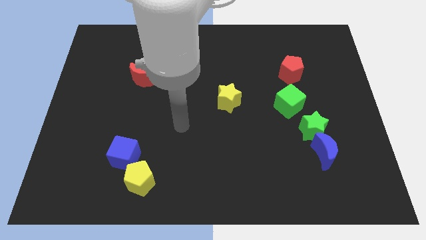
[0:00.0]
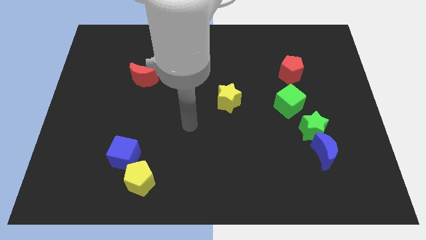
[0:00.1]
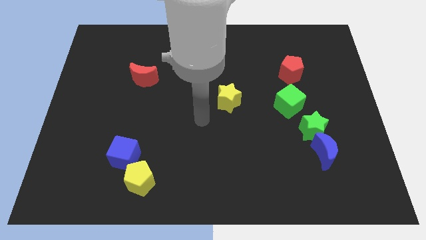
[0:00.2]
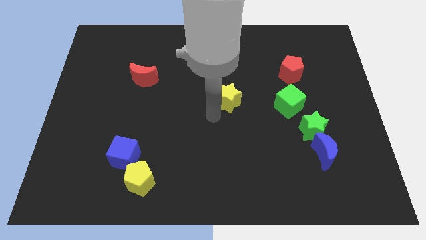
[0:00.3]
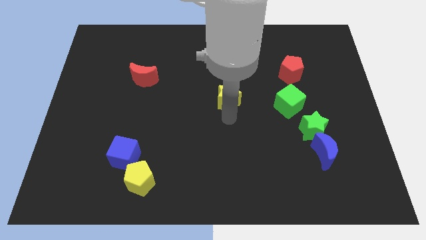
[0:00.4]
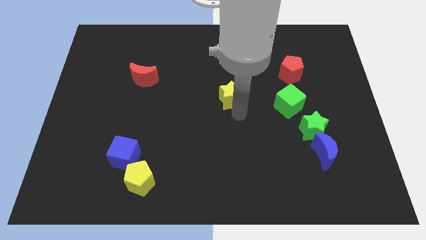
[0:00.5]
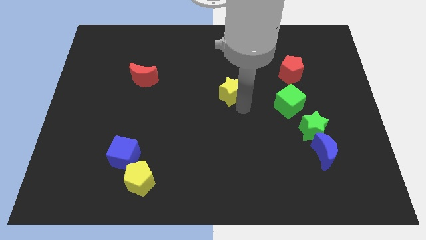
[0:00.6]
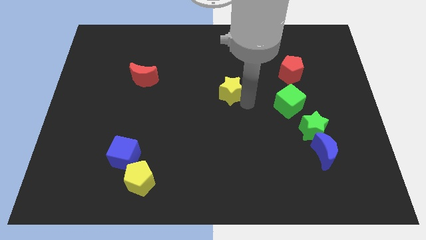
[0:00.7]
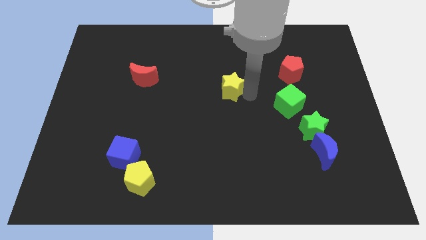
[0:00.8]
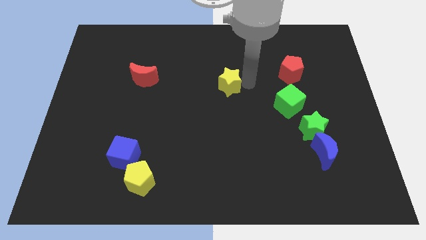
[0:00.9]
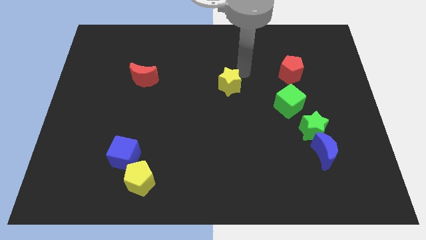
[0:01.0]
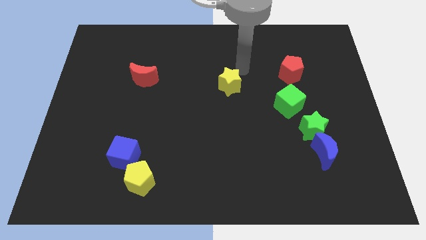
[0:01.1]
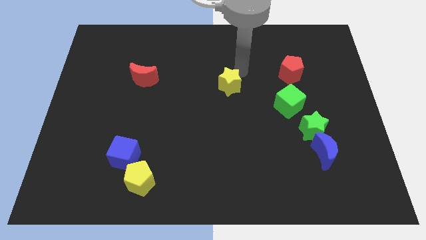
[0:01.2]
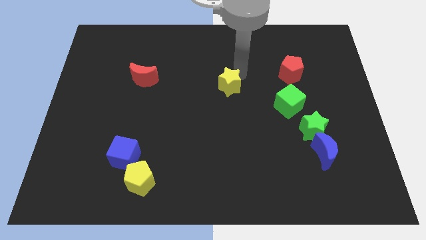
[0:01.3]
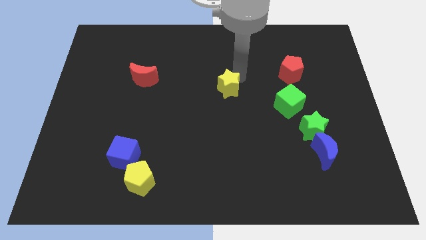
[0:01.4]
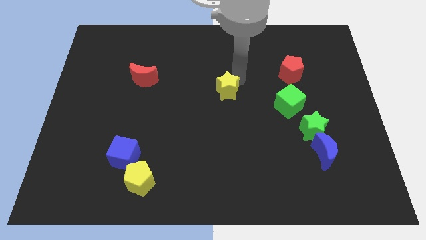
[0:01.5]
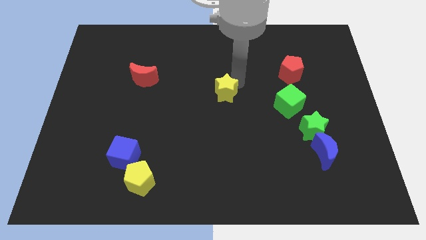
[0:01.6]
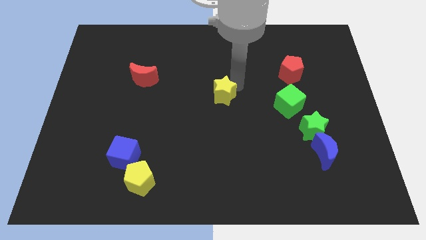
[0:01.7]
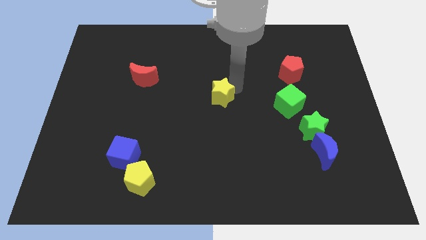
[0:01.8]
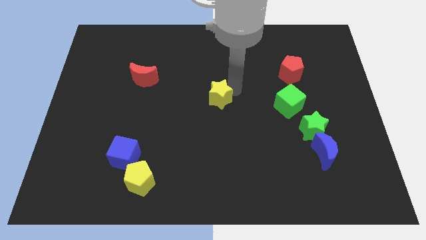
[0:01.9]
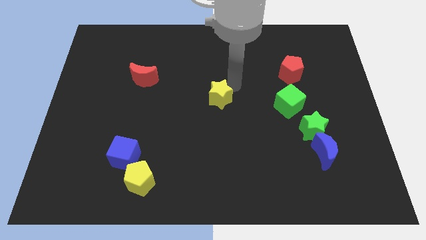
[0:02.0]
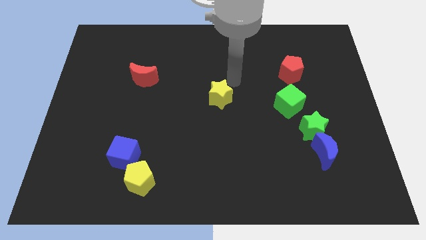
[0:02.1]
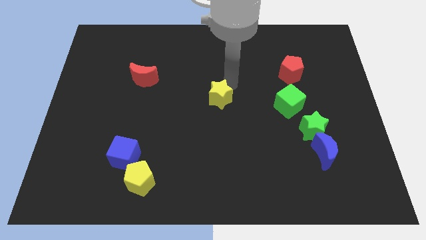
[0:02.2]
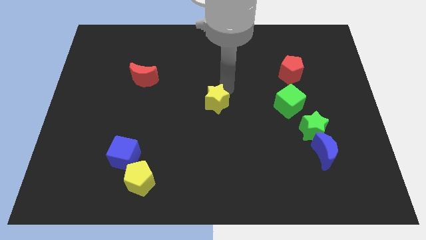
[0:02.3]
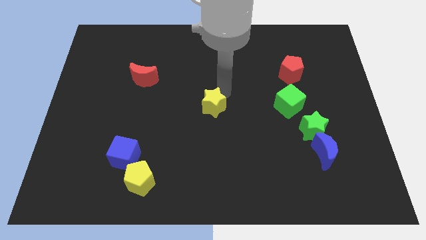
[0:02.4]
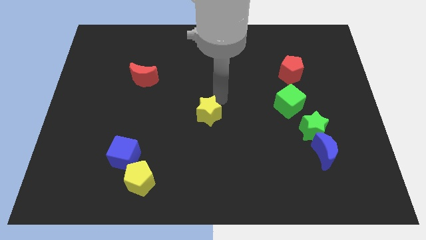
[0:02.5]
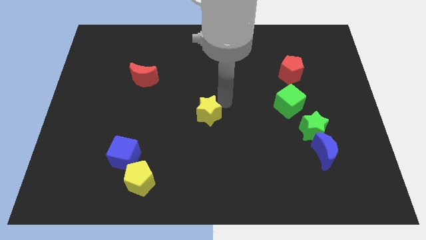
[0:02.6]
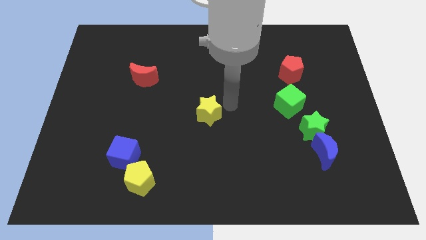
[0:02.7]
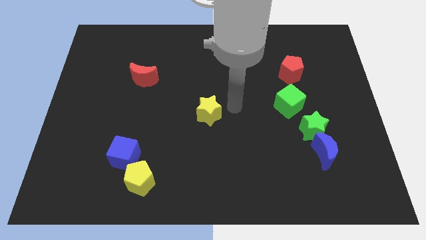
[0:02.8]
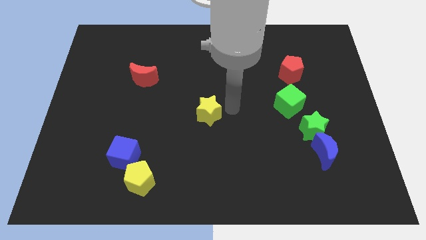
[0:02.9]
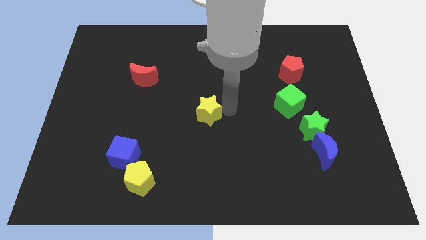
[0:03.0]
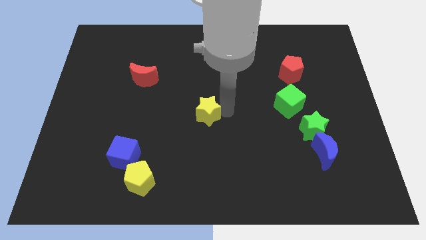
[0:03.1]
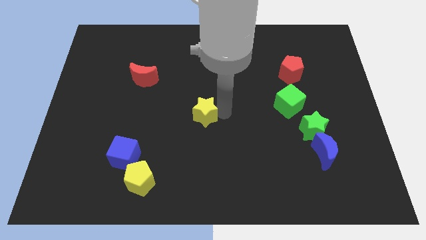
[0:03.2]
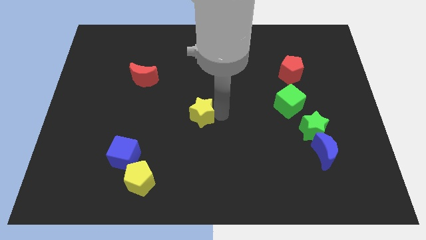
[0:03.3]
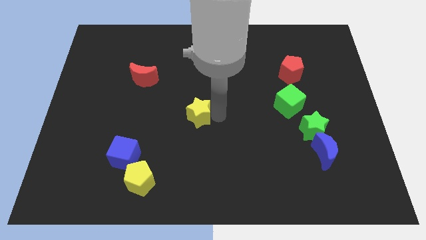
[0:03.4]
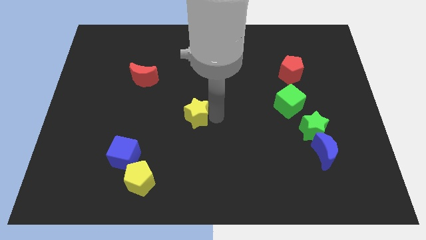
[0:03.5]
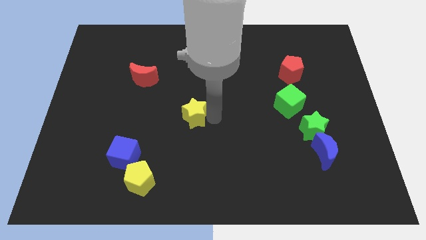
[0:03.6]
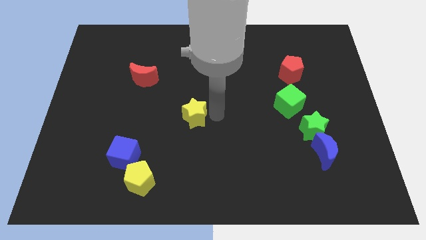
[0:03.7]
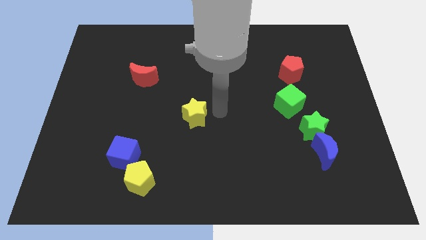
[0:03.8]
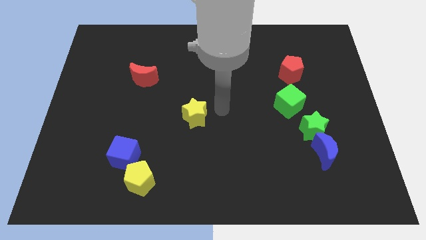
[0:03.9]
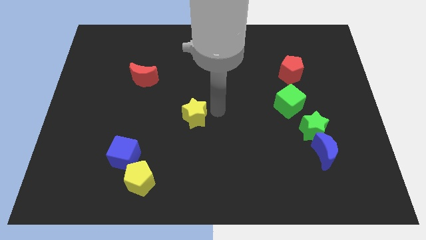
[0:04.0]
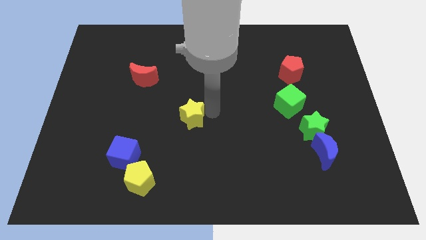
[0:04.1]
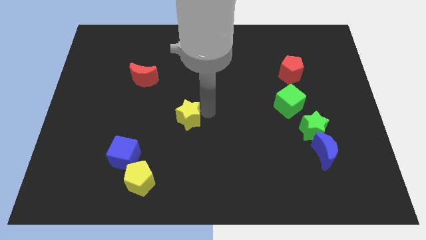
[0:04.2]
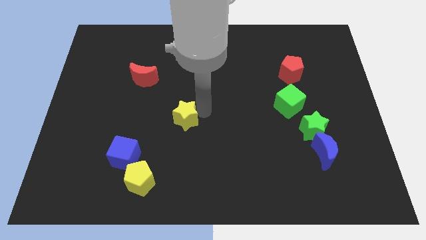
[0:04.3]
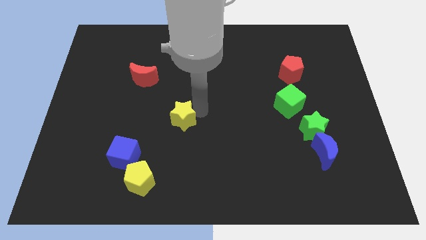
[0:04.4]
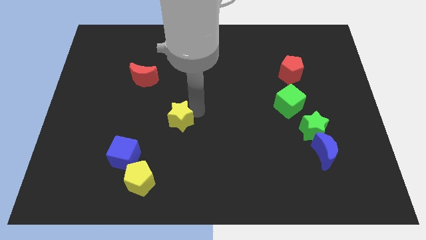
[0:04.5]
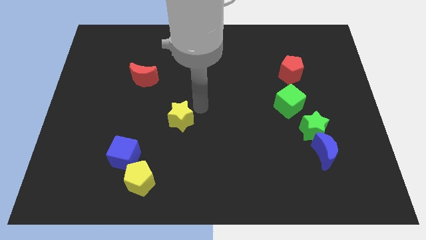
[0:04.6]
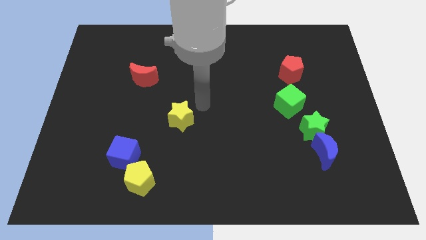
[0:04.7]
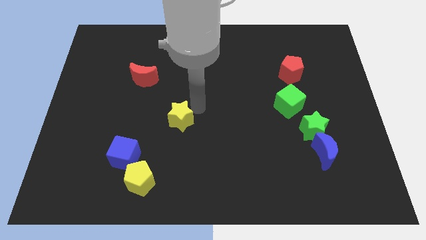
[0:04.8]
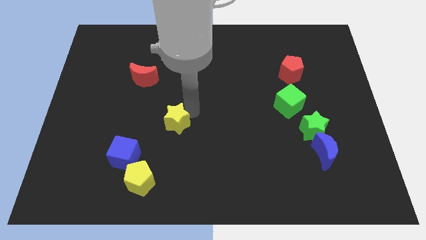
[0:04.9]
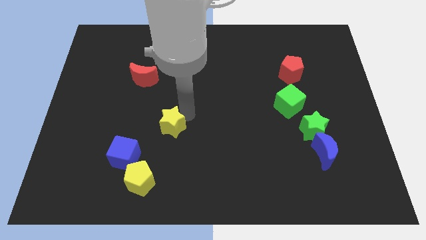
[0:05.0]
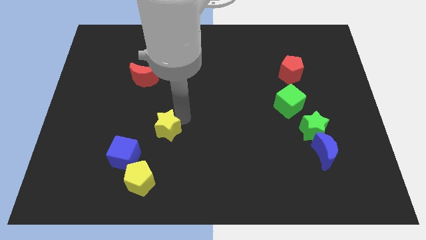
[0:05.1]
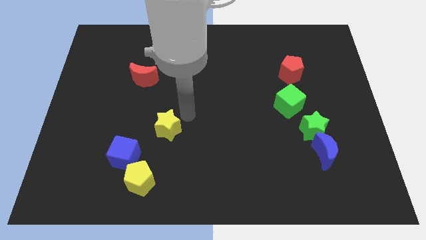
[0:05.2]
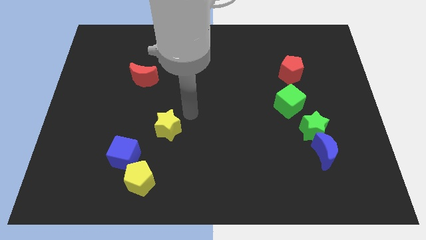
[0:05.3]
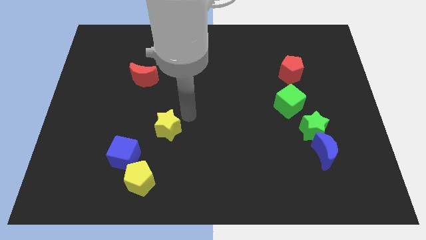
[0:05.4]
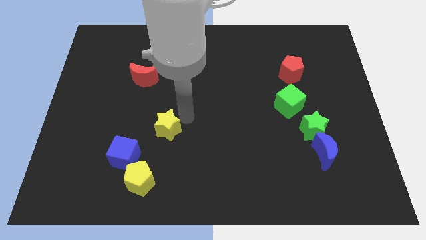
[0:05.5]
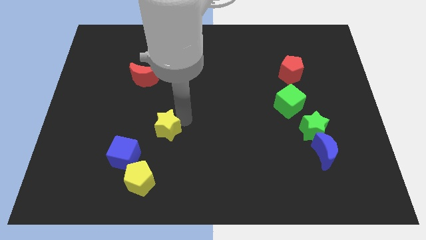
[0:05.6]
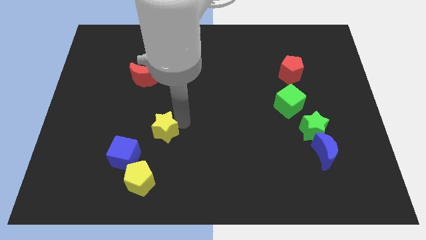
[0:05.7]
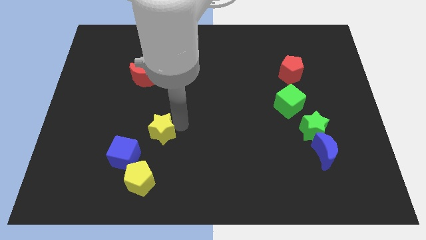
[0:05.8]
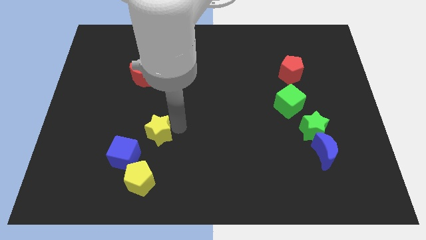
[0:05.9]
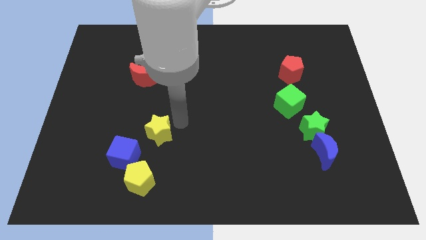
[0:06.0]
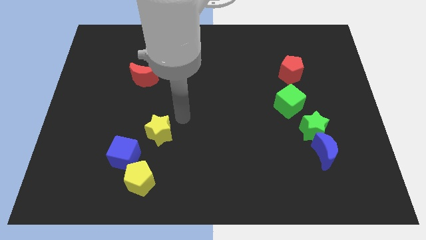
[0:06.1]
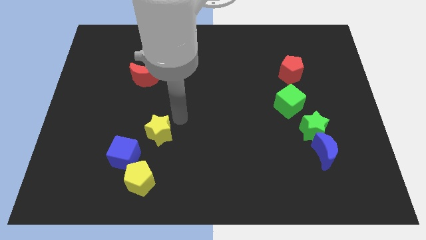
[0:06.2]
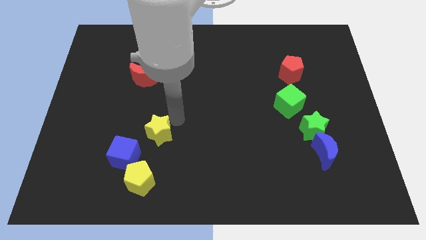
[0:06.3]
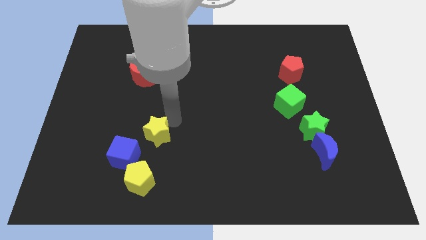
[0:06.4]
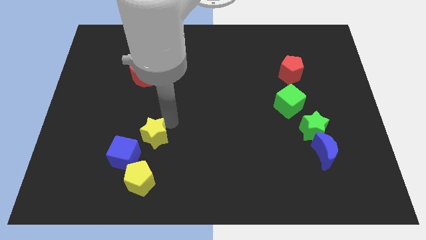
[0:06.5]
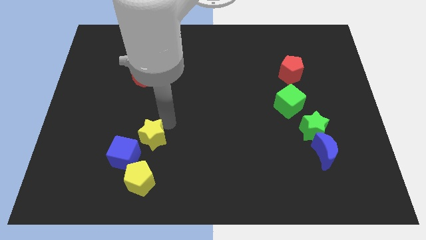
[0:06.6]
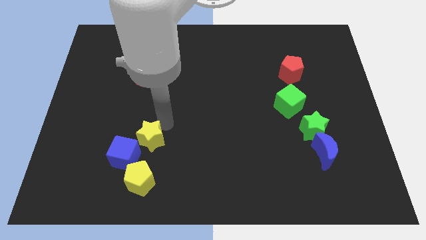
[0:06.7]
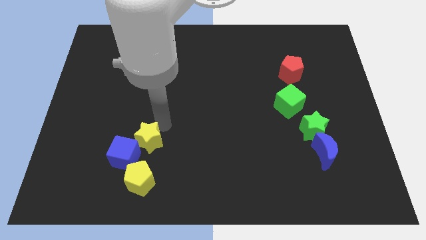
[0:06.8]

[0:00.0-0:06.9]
push the yellow star to the blue cube
